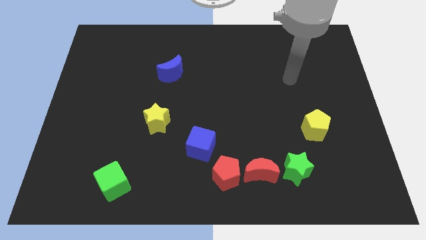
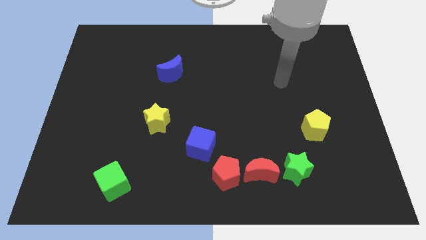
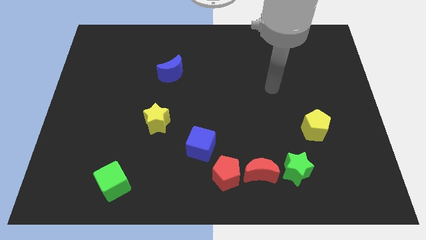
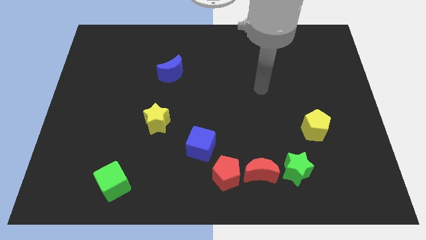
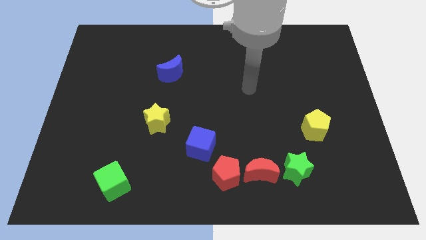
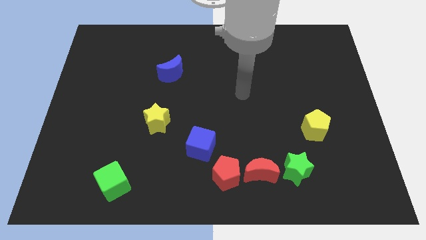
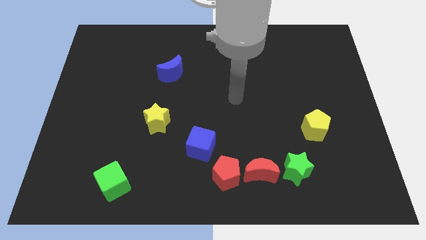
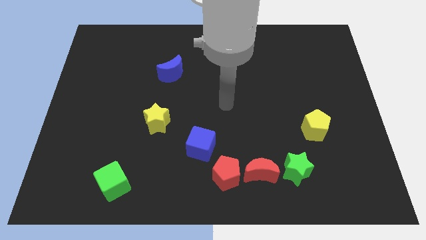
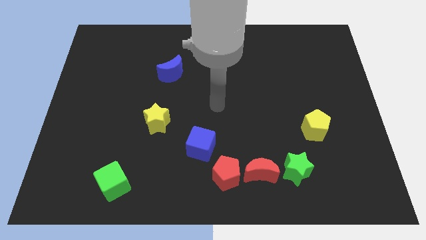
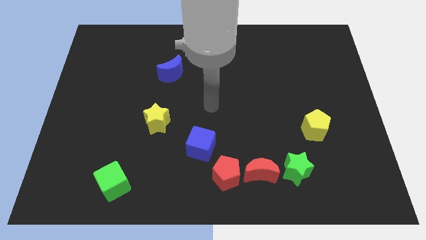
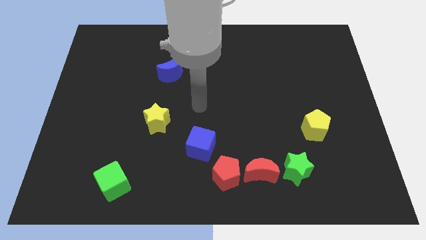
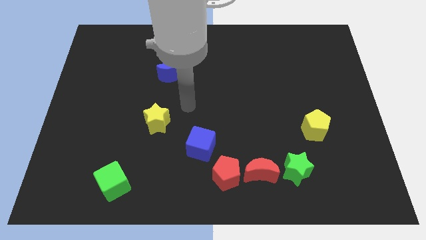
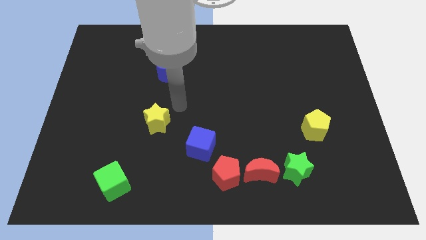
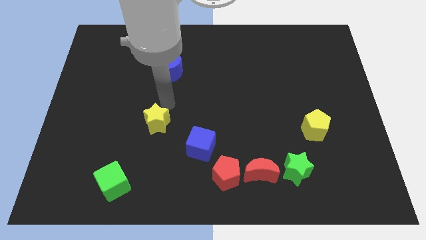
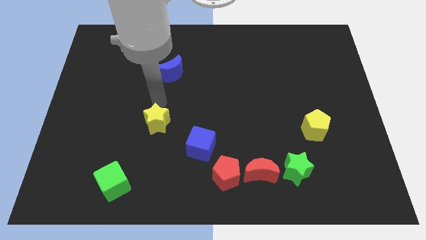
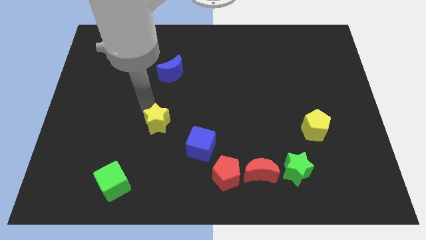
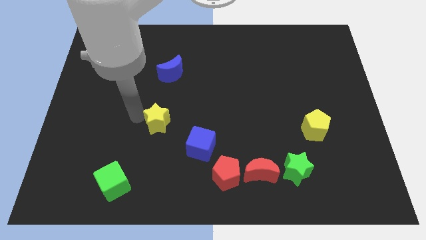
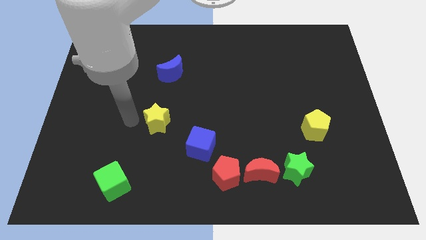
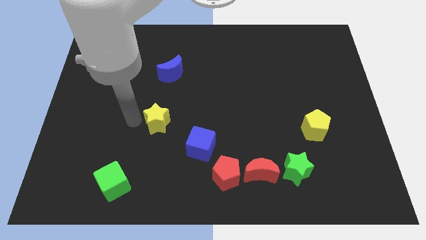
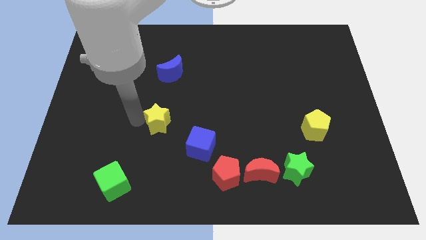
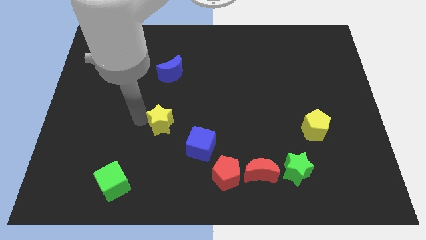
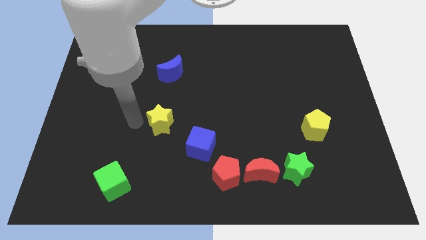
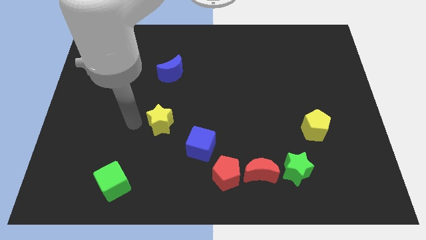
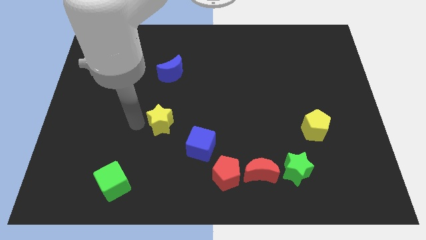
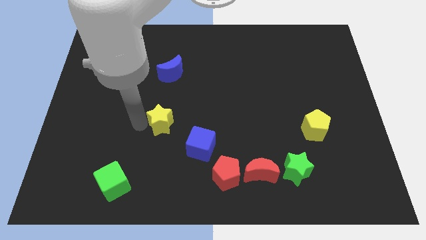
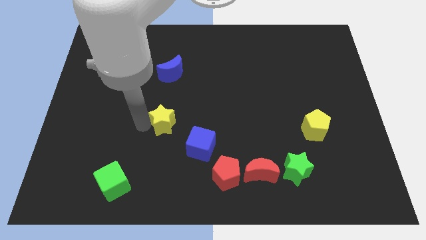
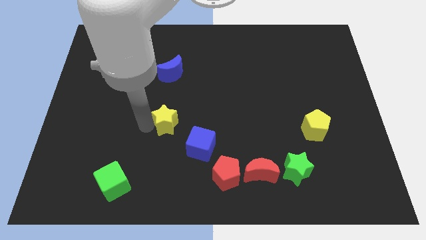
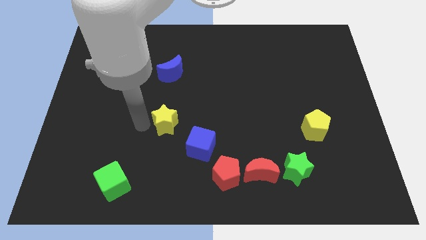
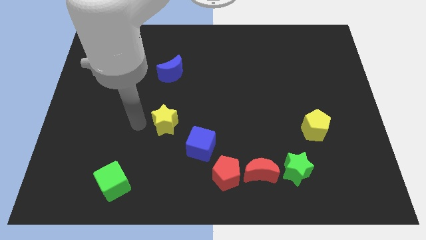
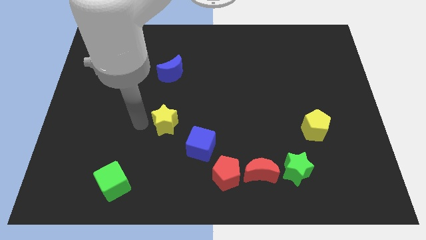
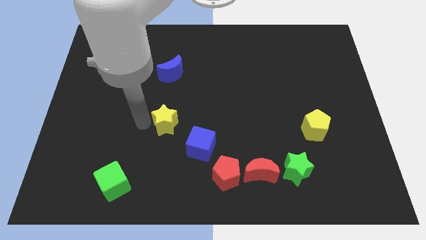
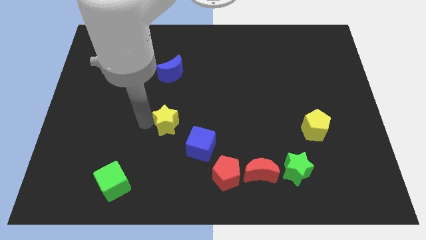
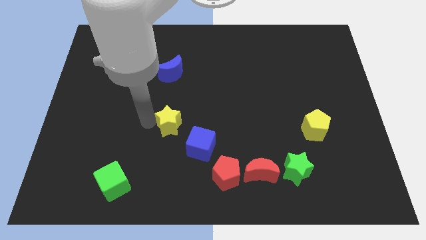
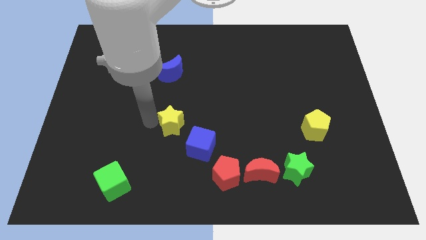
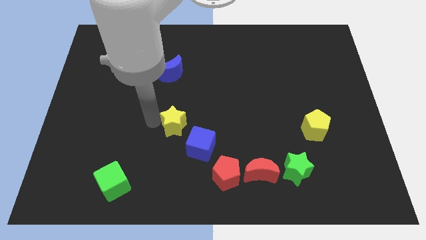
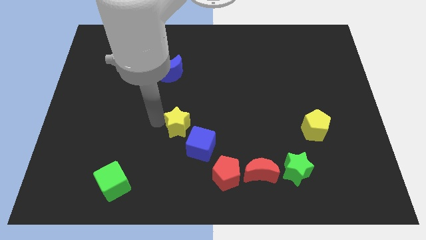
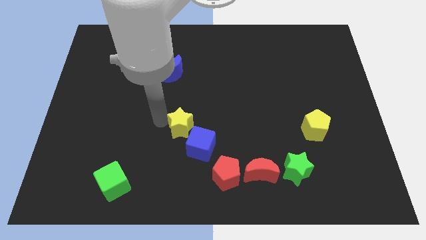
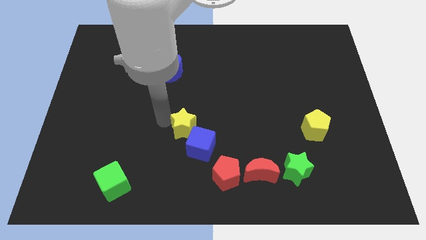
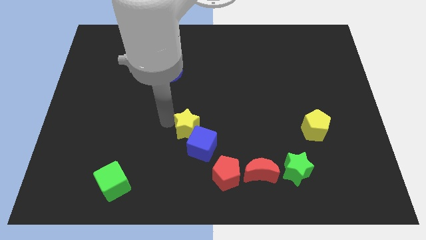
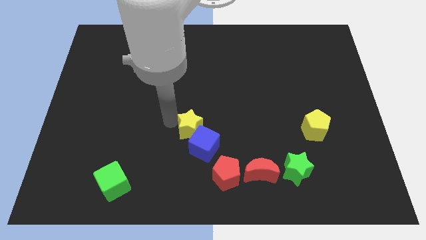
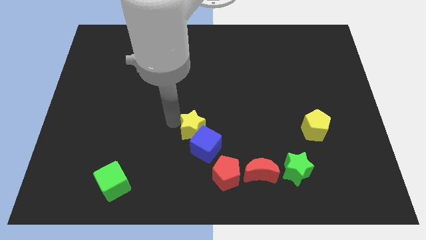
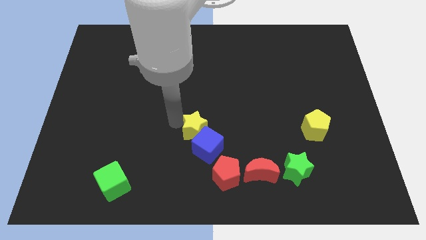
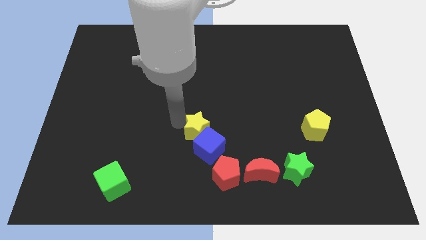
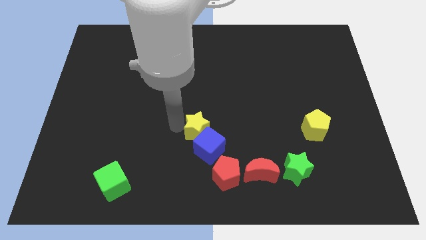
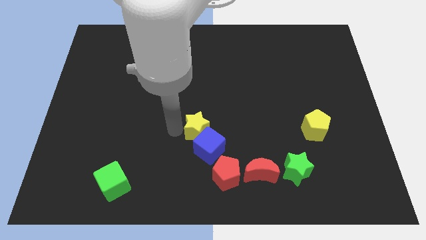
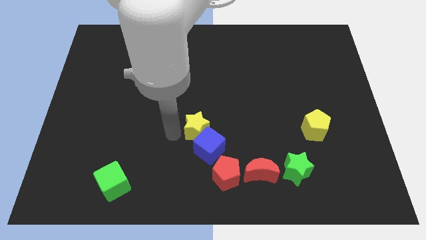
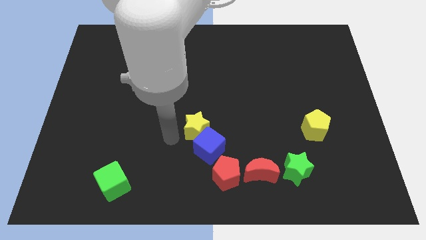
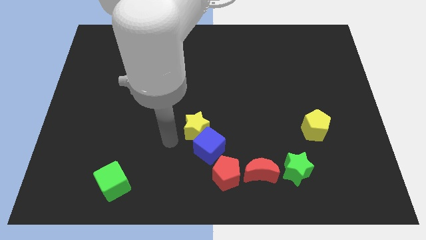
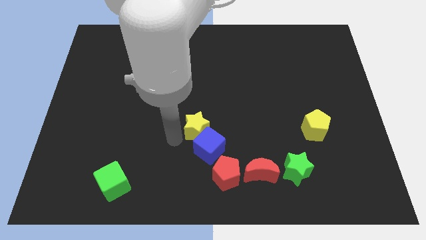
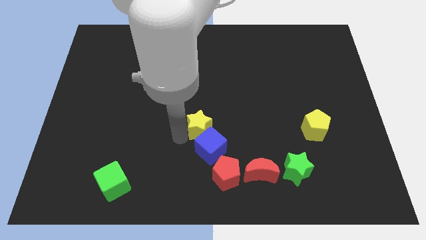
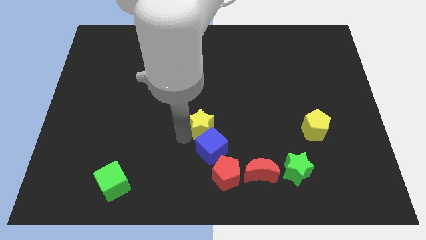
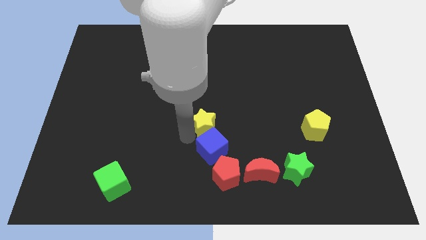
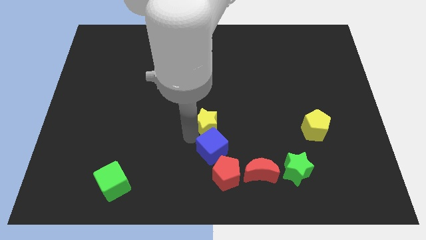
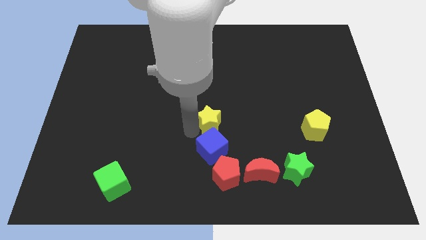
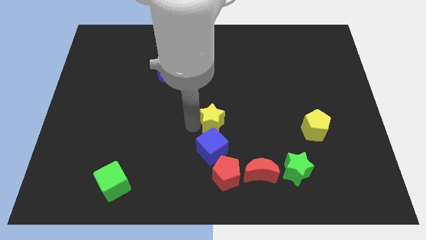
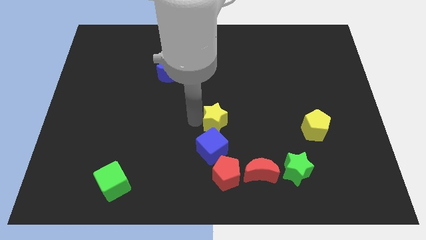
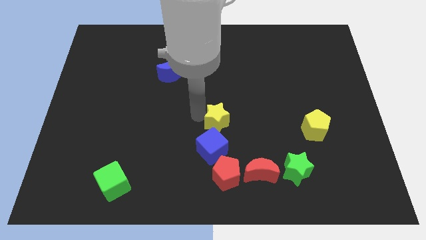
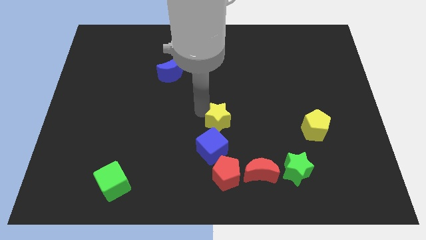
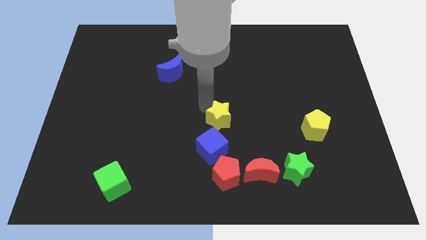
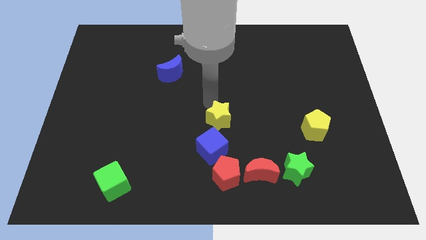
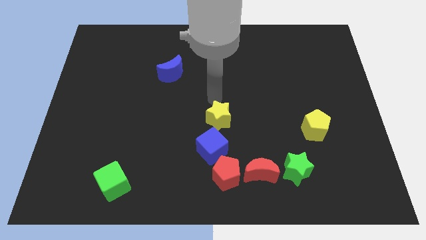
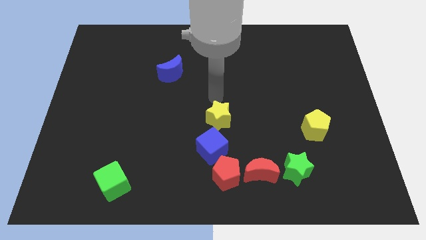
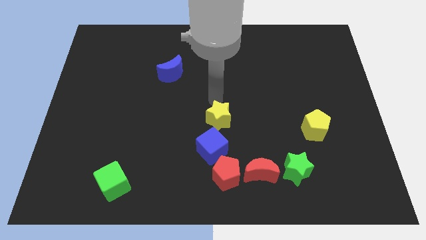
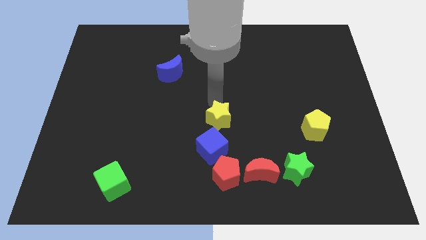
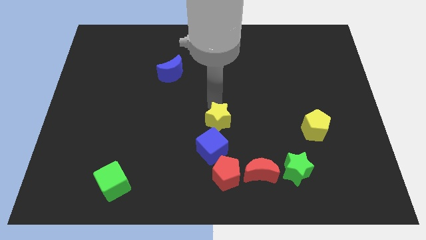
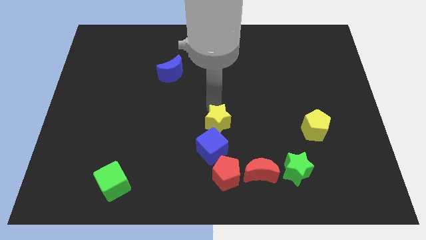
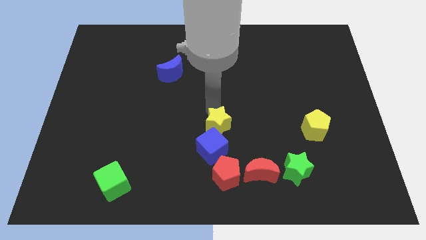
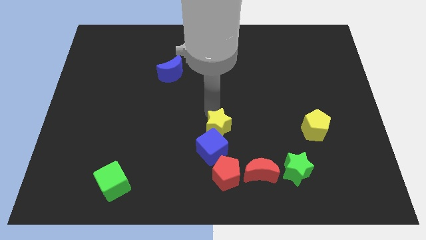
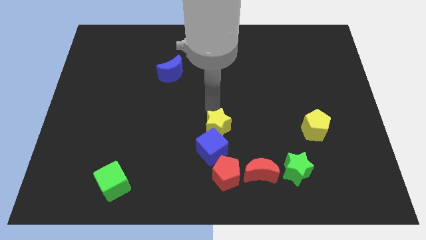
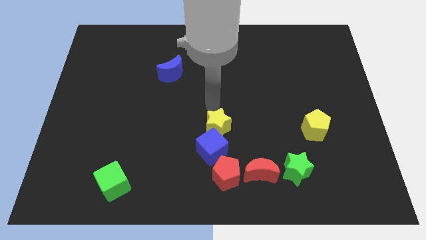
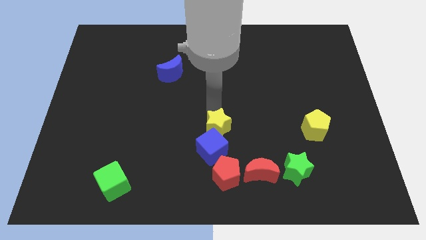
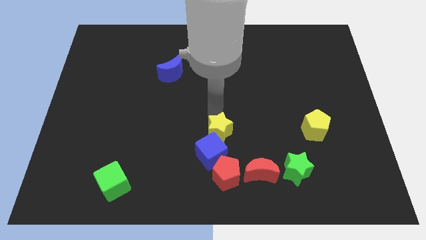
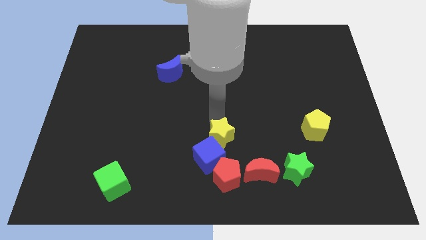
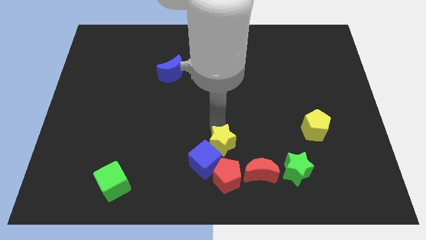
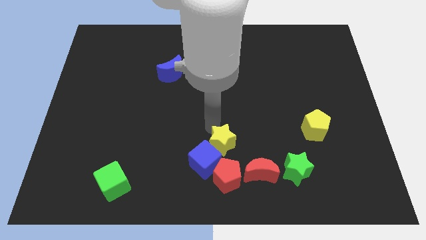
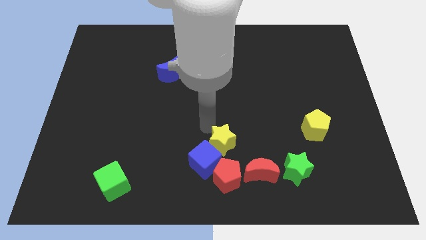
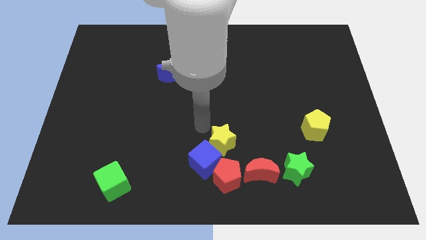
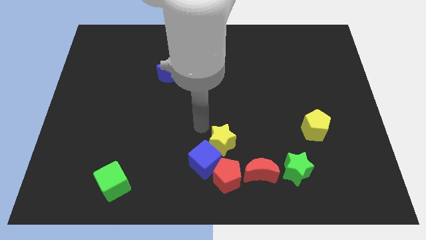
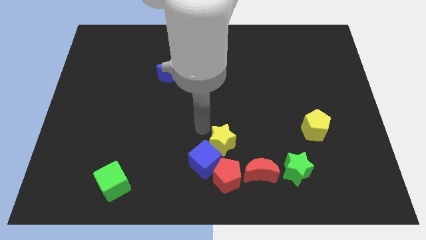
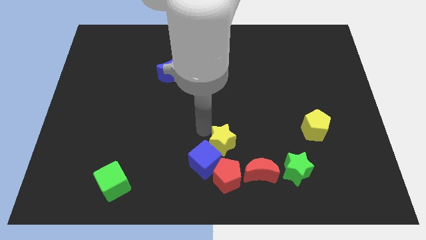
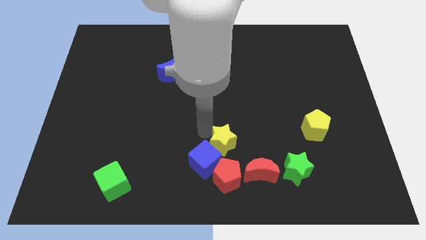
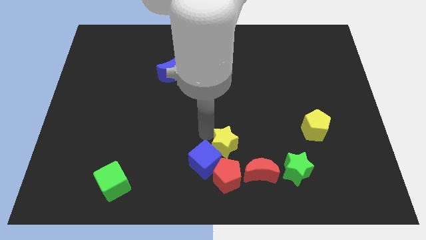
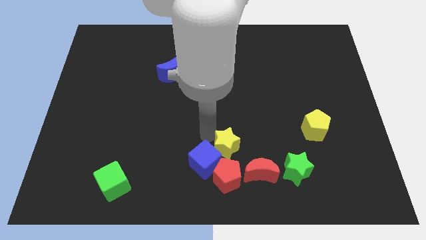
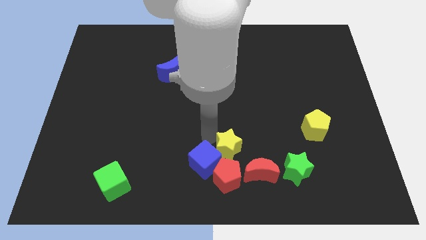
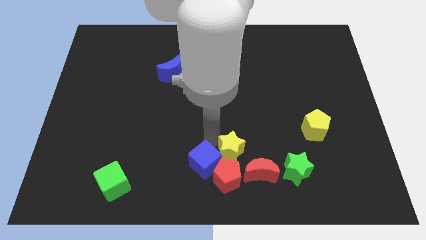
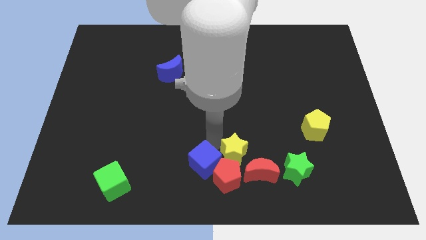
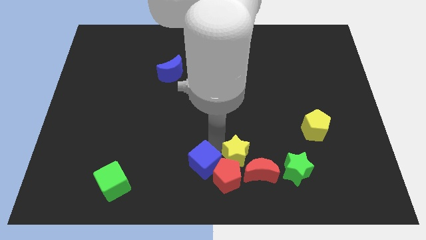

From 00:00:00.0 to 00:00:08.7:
slide the yellow star next to the red moon
